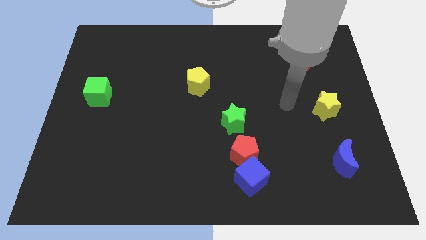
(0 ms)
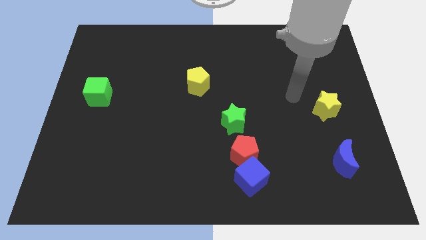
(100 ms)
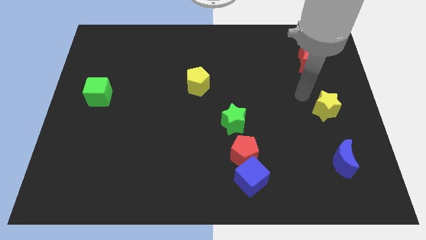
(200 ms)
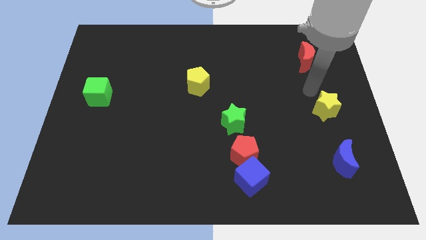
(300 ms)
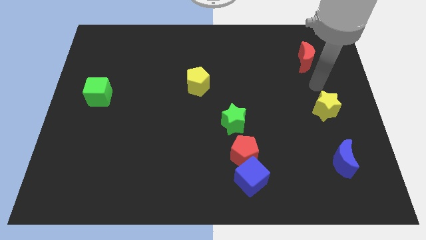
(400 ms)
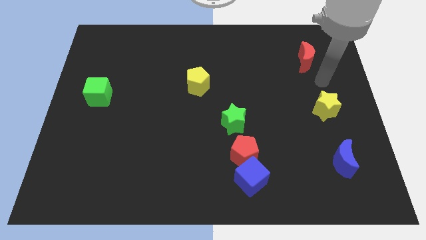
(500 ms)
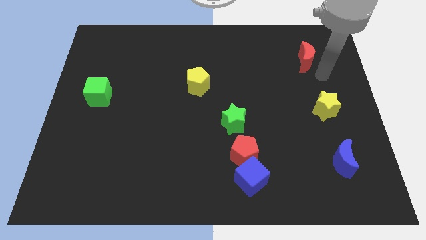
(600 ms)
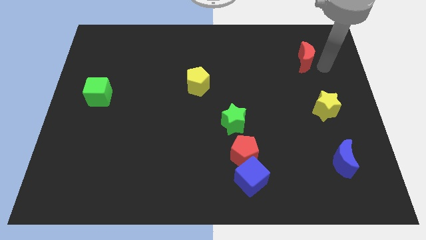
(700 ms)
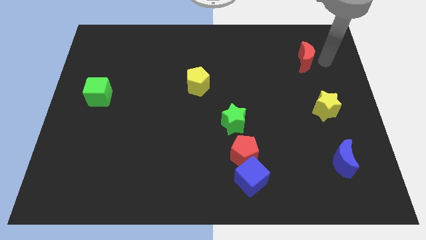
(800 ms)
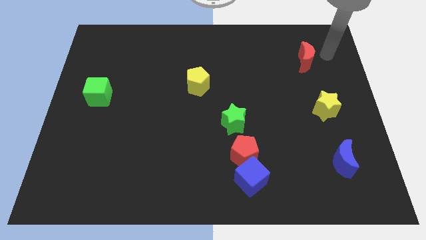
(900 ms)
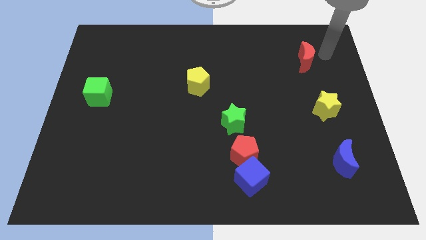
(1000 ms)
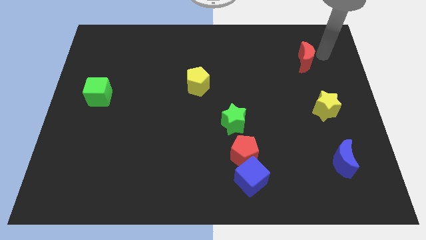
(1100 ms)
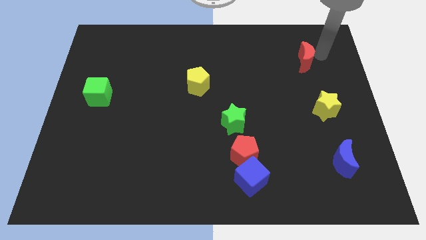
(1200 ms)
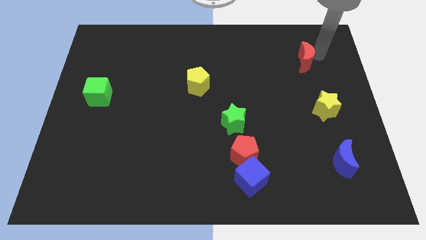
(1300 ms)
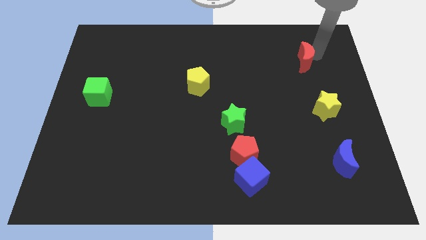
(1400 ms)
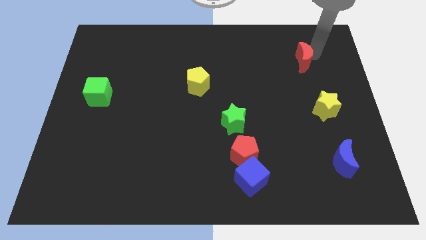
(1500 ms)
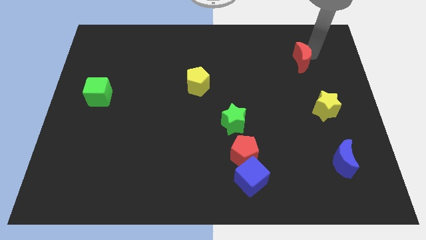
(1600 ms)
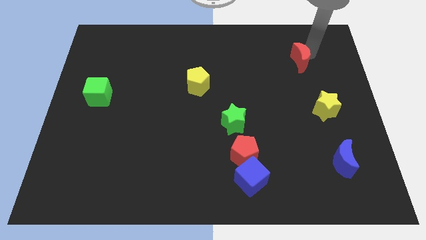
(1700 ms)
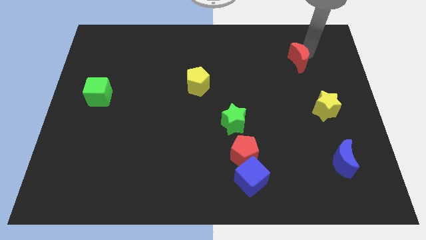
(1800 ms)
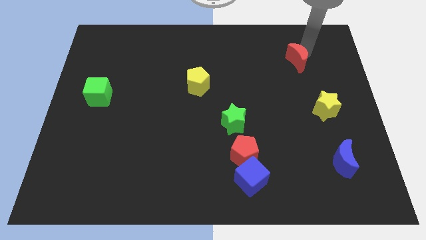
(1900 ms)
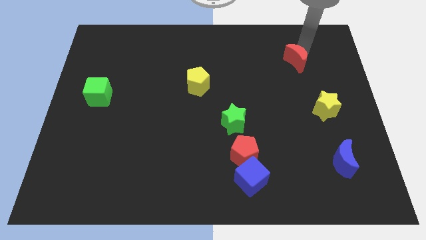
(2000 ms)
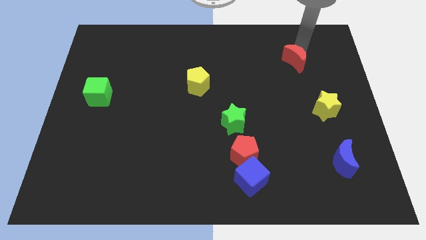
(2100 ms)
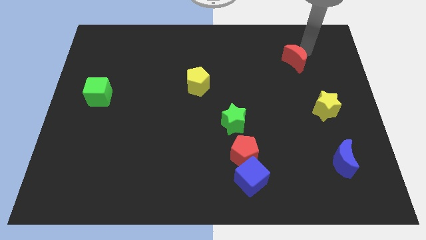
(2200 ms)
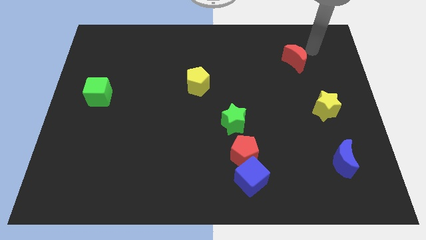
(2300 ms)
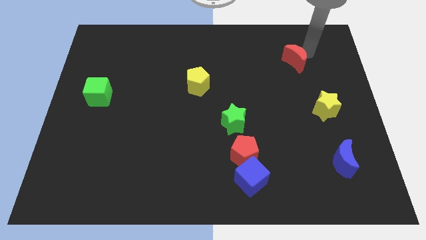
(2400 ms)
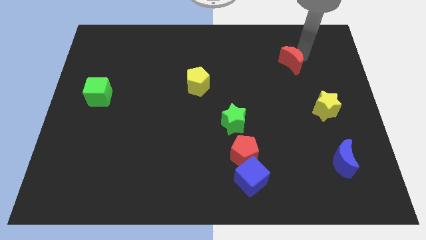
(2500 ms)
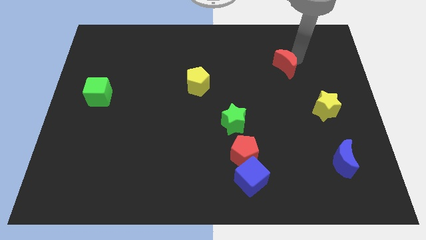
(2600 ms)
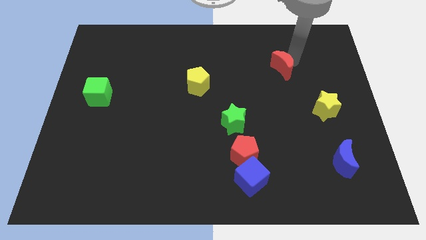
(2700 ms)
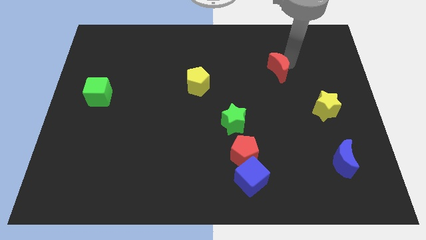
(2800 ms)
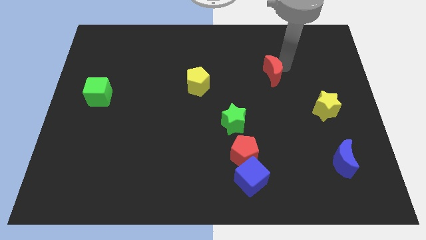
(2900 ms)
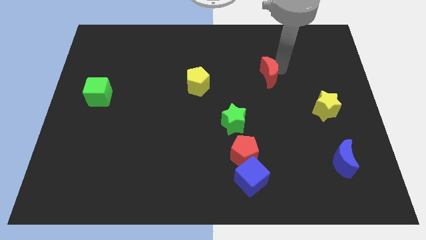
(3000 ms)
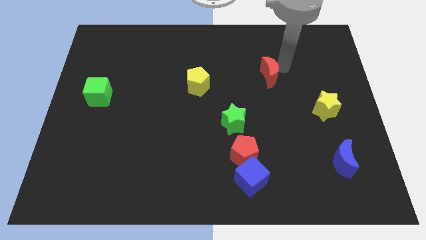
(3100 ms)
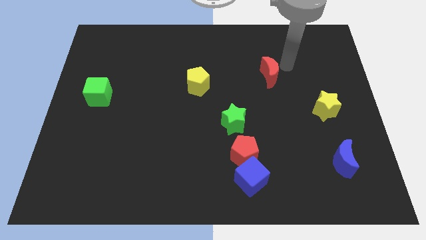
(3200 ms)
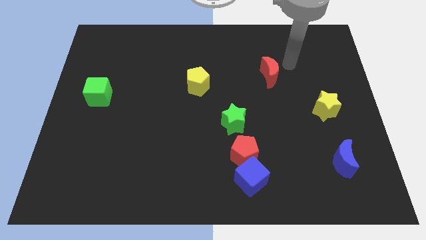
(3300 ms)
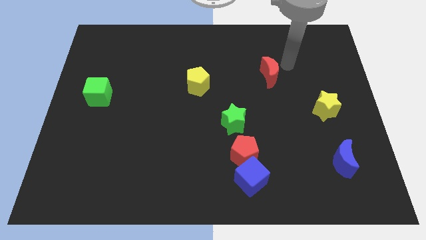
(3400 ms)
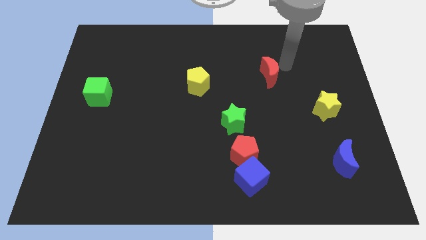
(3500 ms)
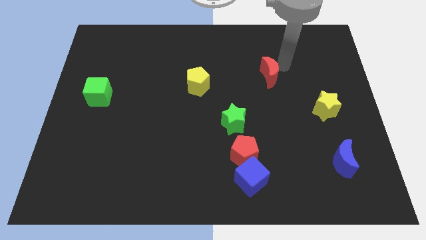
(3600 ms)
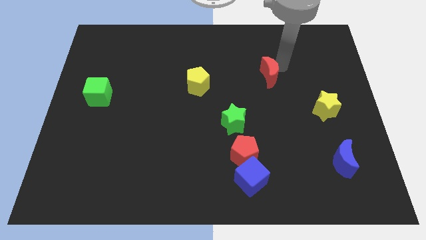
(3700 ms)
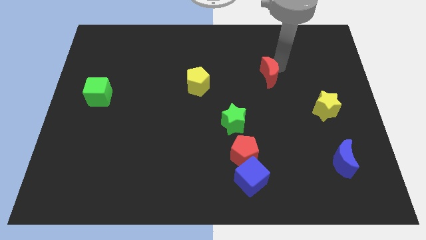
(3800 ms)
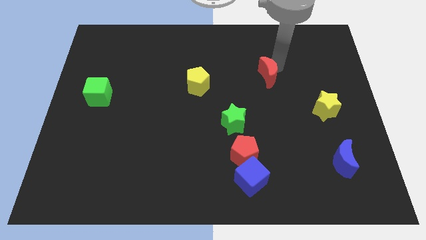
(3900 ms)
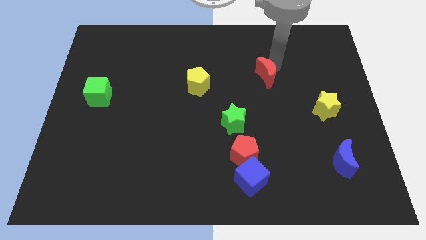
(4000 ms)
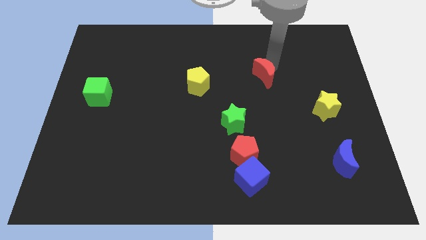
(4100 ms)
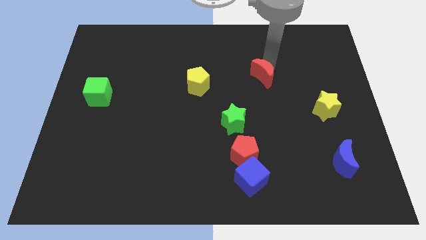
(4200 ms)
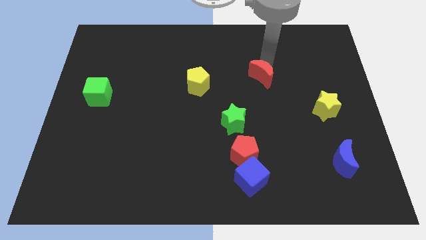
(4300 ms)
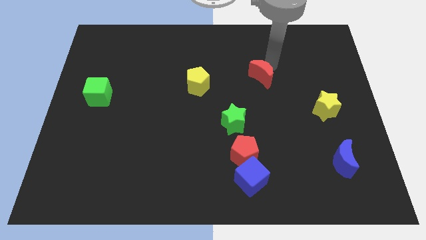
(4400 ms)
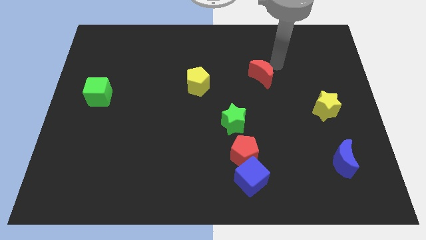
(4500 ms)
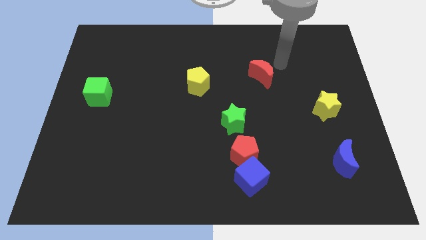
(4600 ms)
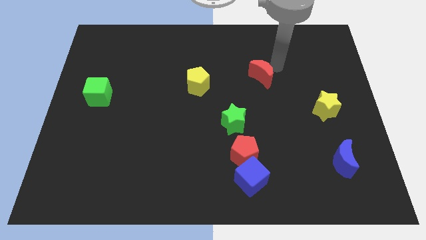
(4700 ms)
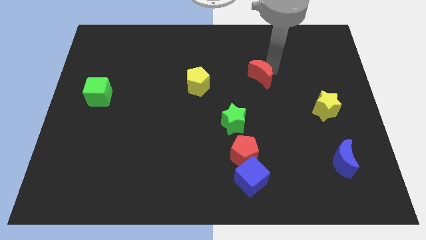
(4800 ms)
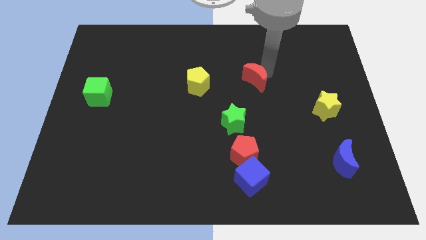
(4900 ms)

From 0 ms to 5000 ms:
put the red moon to the middle of the board

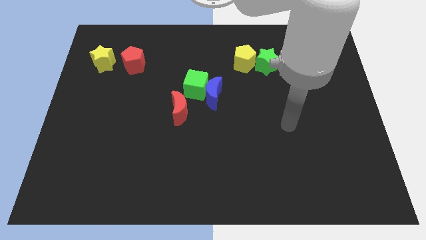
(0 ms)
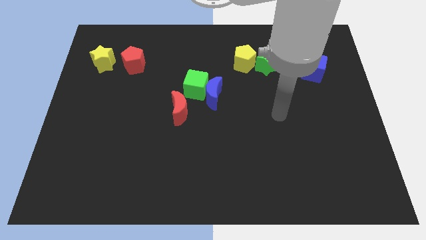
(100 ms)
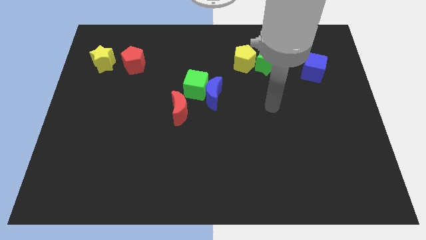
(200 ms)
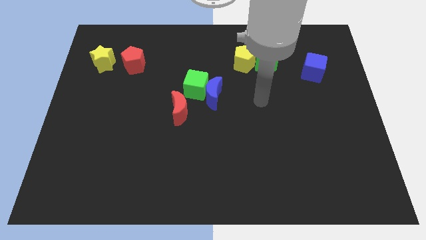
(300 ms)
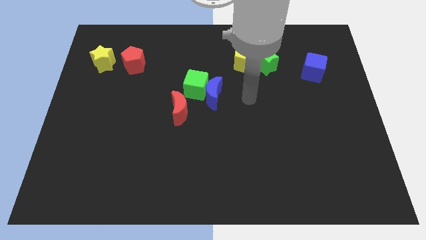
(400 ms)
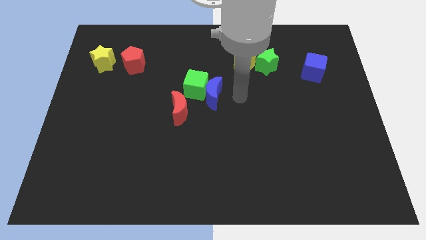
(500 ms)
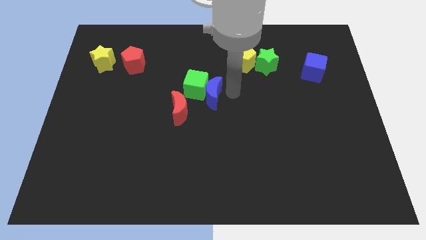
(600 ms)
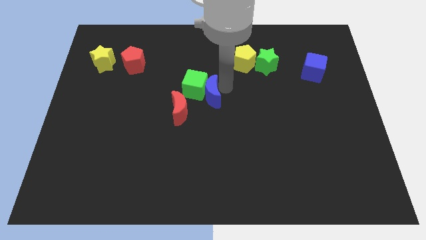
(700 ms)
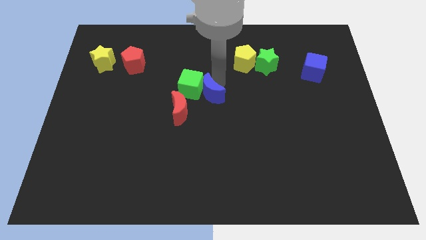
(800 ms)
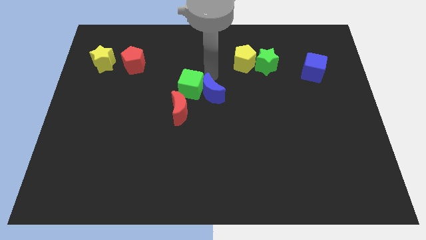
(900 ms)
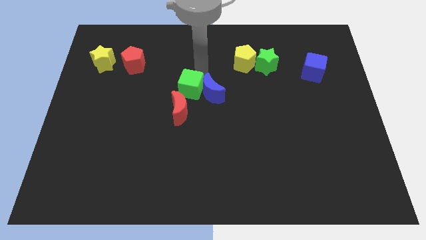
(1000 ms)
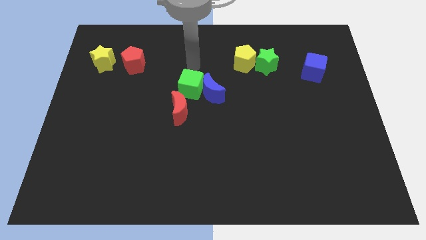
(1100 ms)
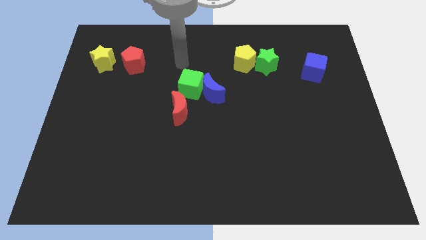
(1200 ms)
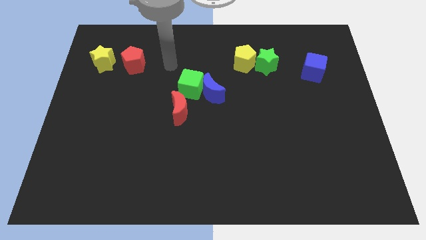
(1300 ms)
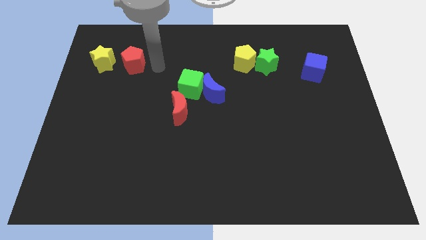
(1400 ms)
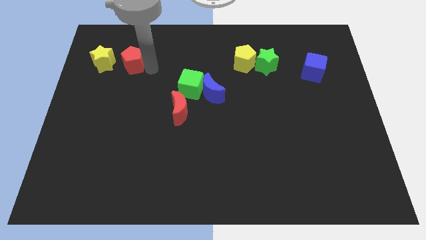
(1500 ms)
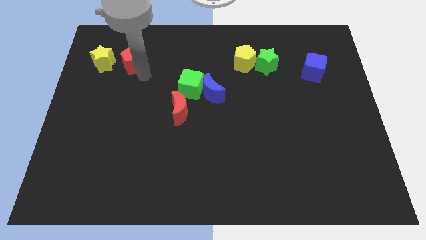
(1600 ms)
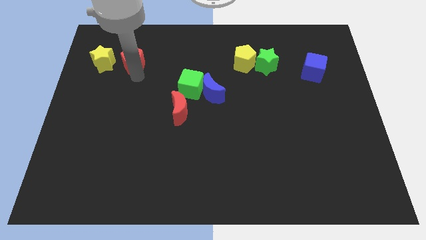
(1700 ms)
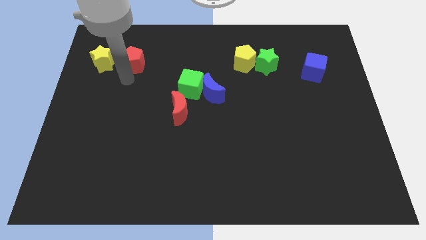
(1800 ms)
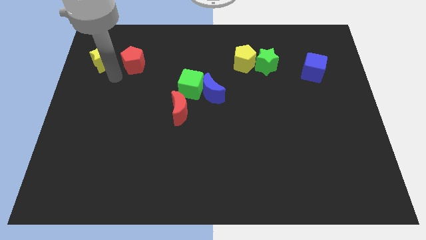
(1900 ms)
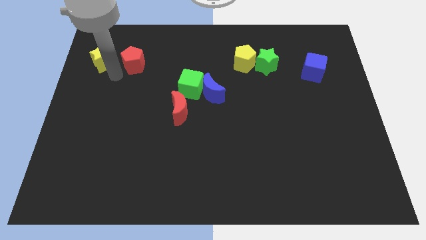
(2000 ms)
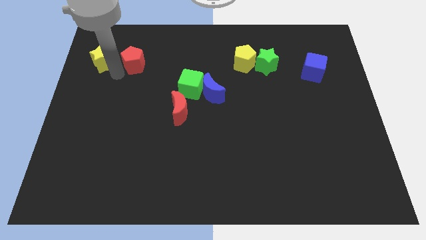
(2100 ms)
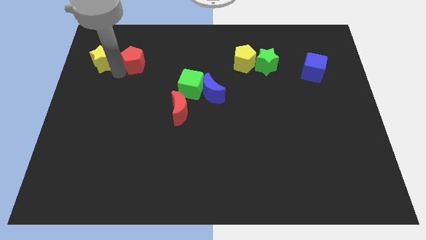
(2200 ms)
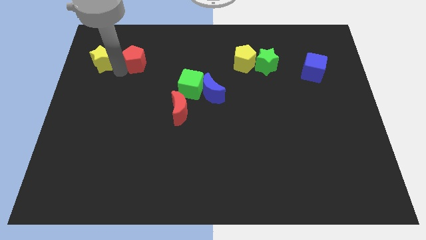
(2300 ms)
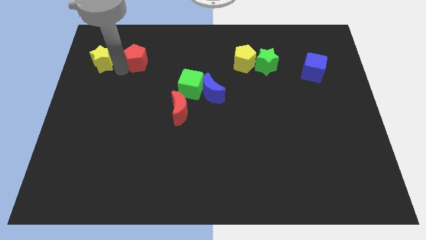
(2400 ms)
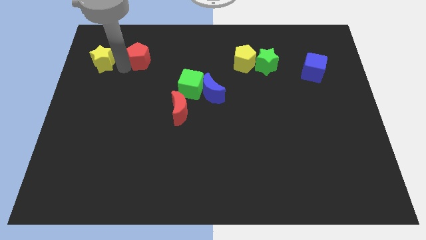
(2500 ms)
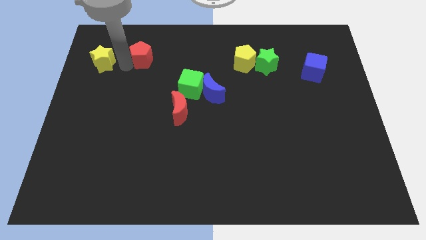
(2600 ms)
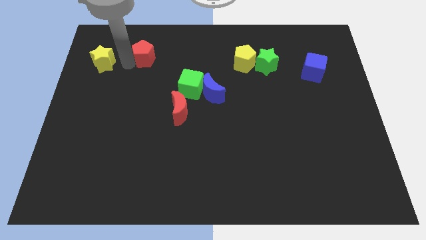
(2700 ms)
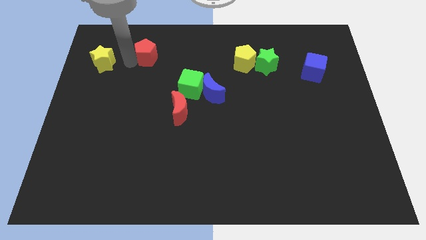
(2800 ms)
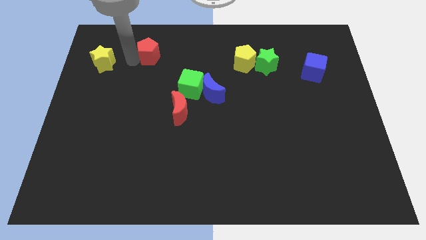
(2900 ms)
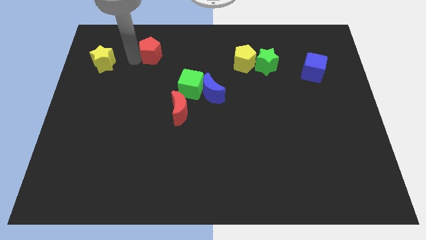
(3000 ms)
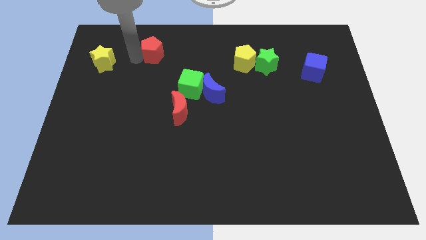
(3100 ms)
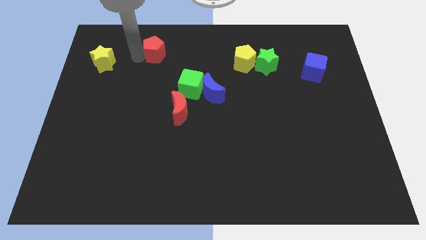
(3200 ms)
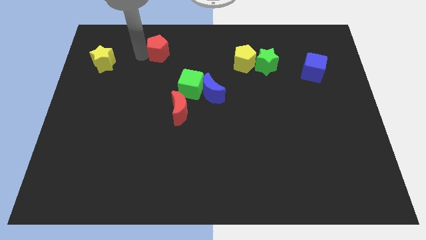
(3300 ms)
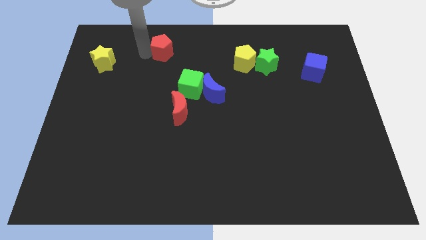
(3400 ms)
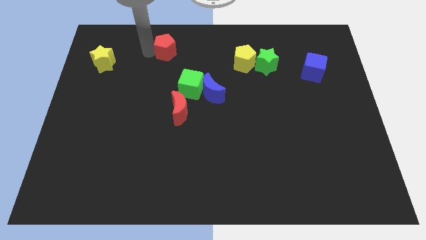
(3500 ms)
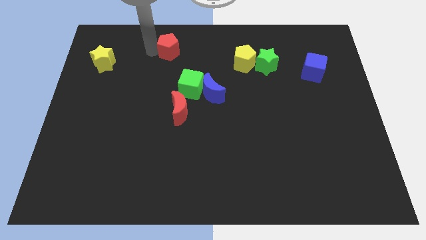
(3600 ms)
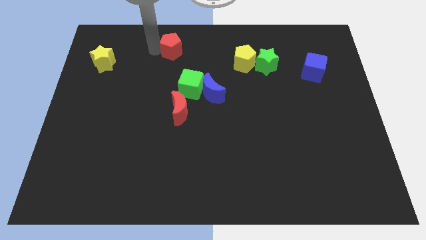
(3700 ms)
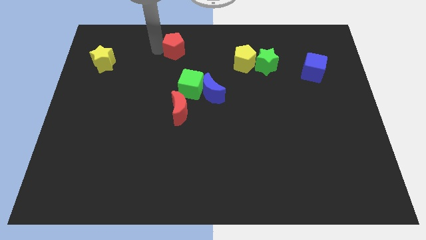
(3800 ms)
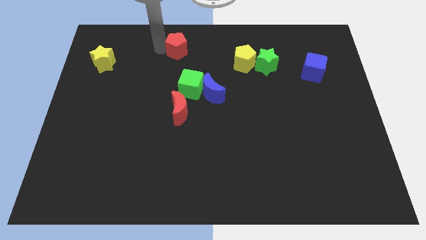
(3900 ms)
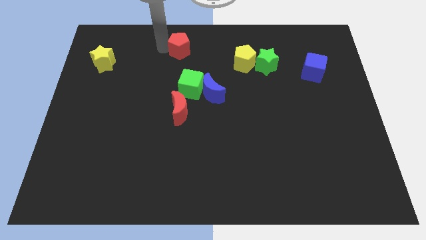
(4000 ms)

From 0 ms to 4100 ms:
put the red pentagon to the top
